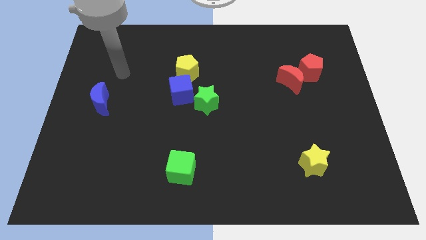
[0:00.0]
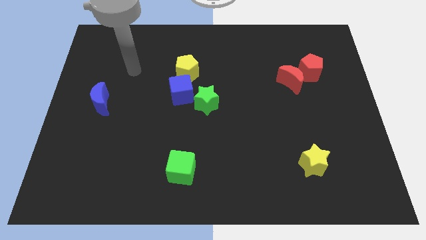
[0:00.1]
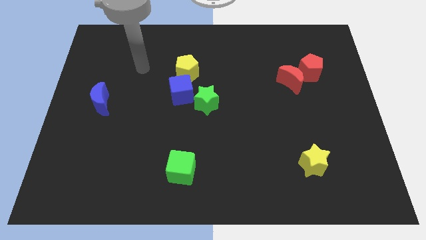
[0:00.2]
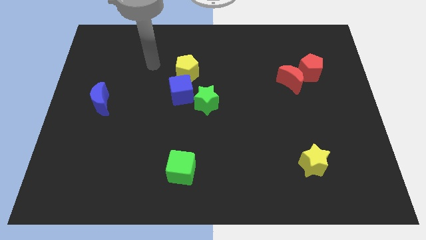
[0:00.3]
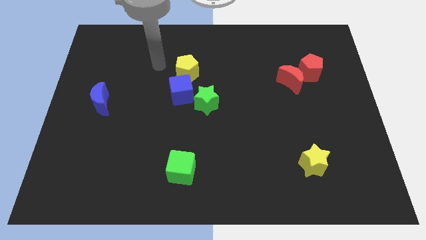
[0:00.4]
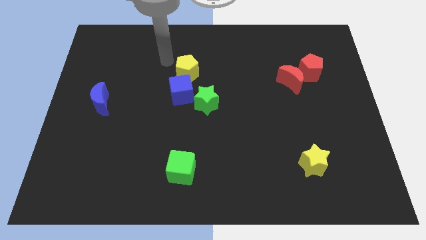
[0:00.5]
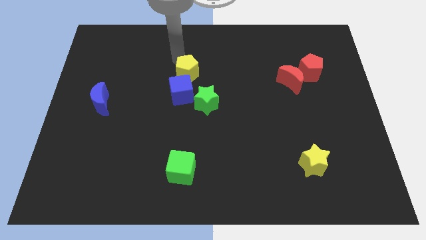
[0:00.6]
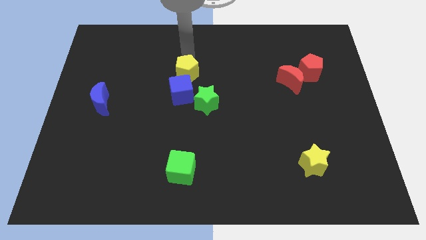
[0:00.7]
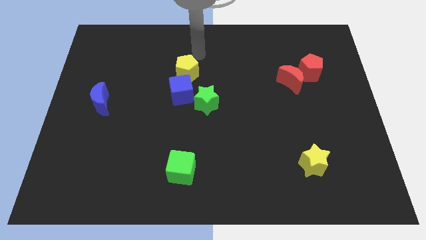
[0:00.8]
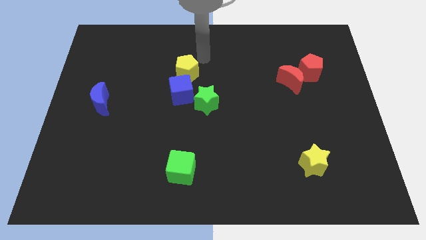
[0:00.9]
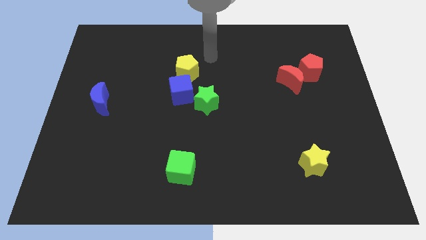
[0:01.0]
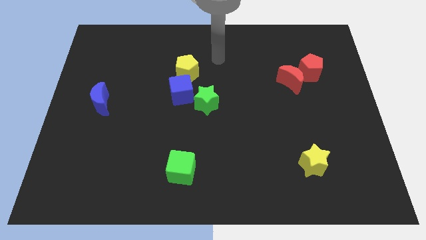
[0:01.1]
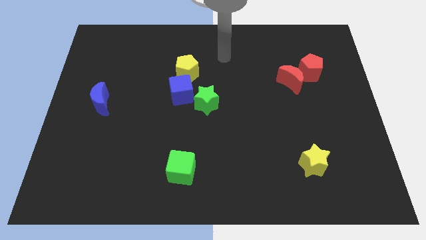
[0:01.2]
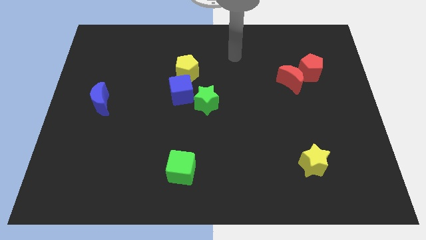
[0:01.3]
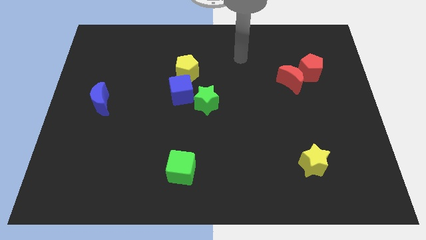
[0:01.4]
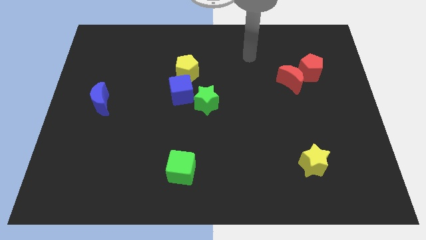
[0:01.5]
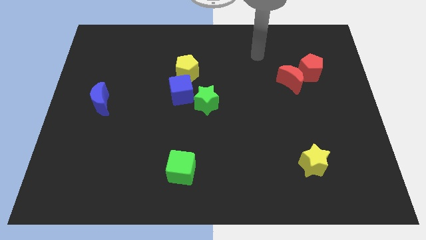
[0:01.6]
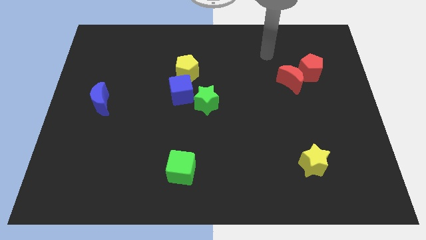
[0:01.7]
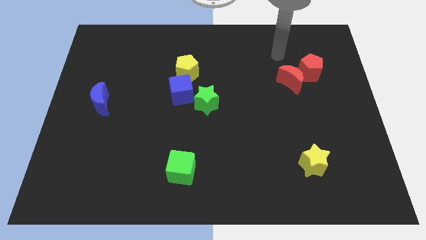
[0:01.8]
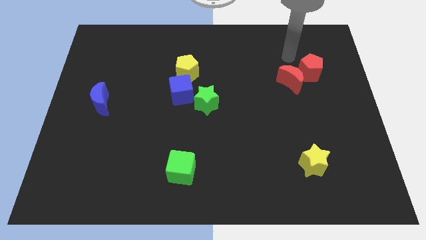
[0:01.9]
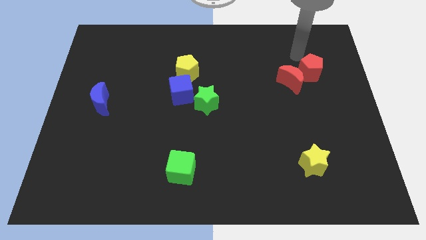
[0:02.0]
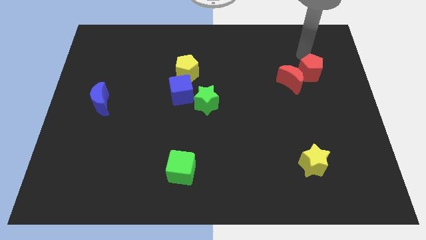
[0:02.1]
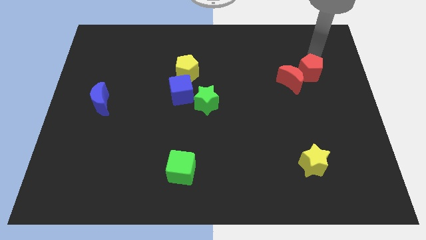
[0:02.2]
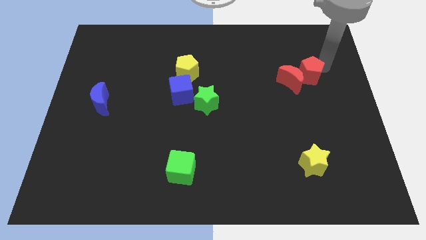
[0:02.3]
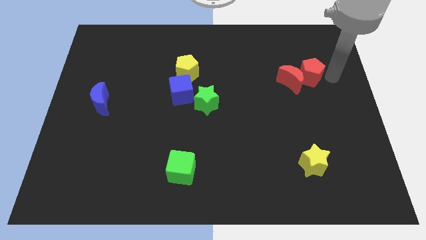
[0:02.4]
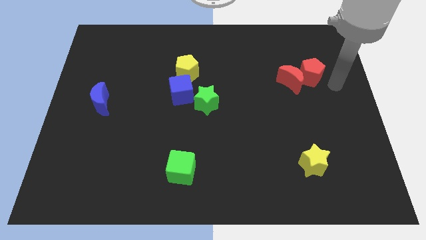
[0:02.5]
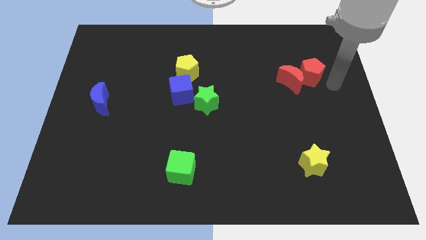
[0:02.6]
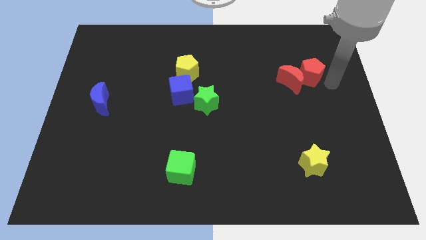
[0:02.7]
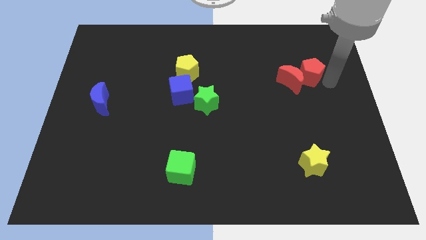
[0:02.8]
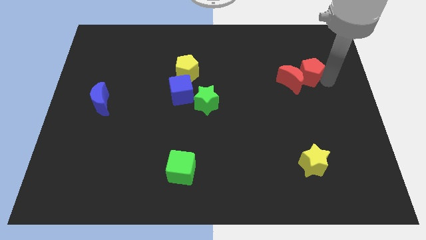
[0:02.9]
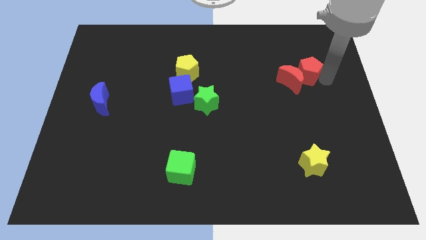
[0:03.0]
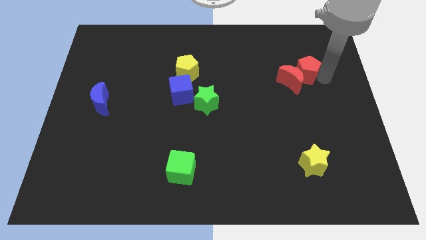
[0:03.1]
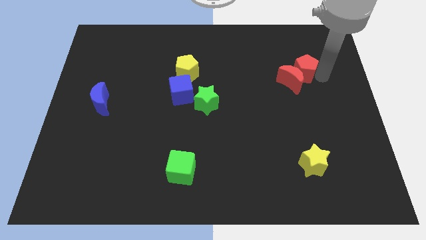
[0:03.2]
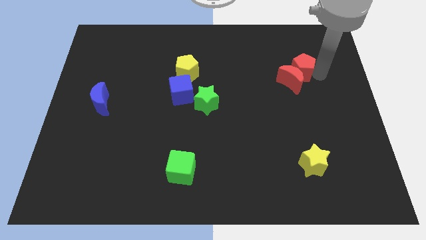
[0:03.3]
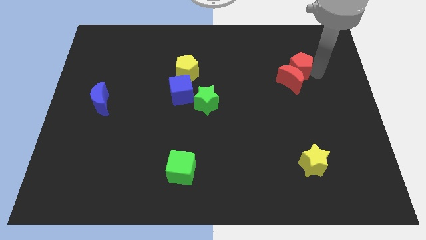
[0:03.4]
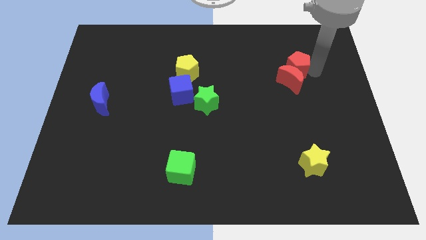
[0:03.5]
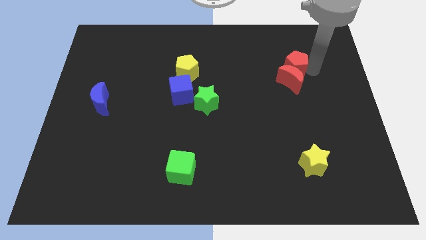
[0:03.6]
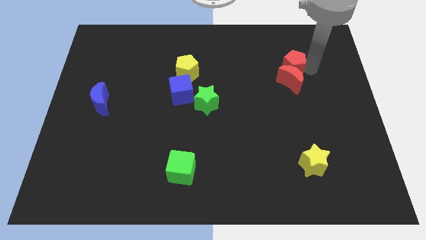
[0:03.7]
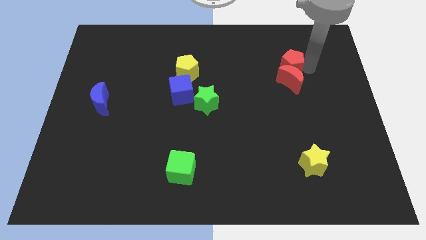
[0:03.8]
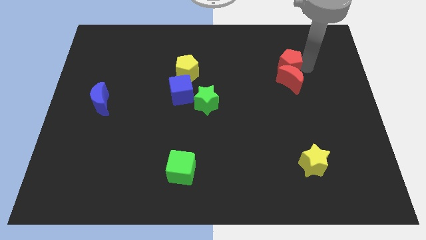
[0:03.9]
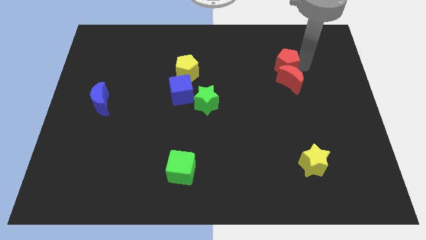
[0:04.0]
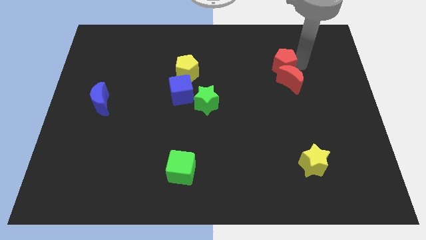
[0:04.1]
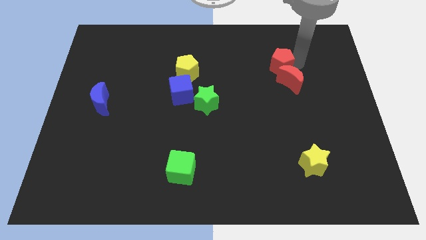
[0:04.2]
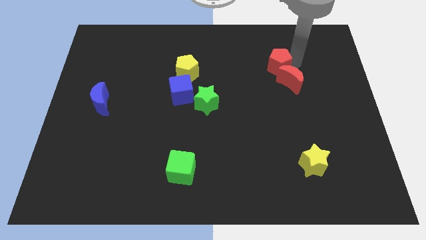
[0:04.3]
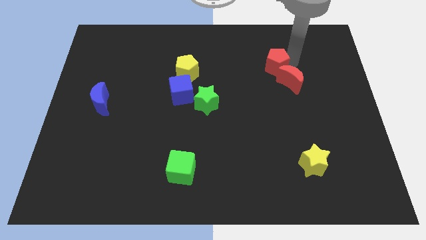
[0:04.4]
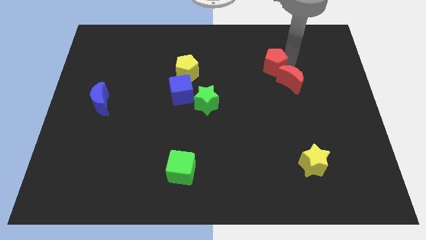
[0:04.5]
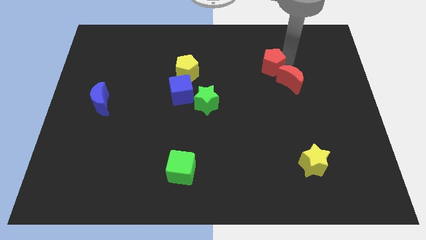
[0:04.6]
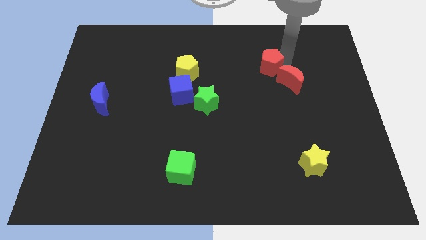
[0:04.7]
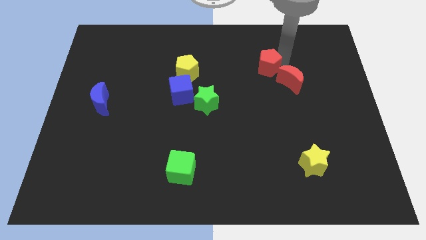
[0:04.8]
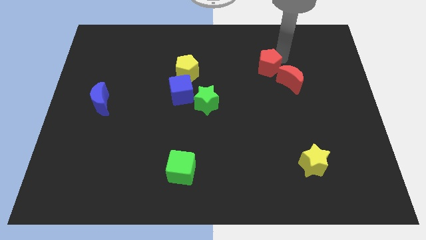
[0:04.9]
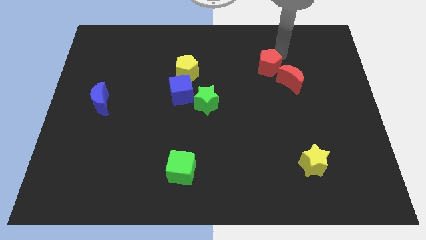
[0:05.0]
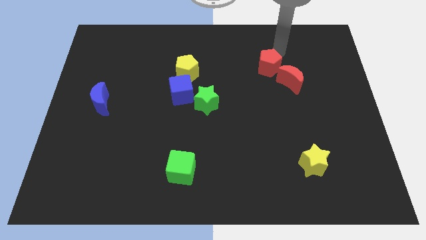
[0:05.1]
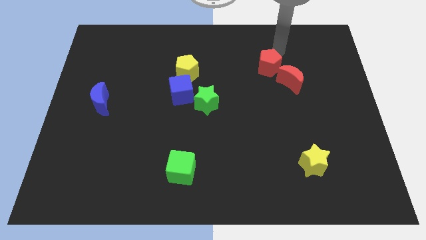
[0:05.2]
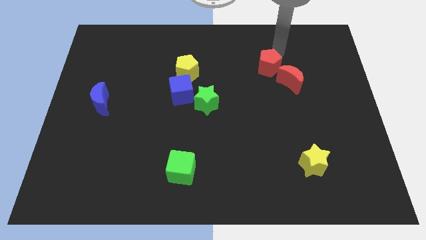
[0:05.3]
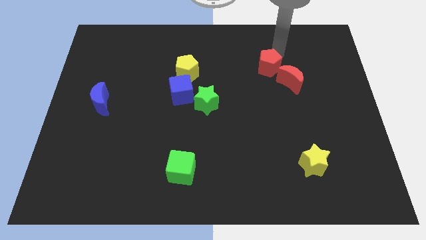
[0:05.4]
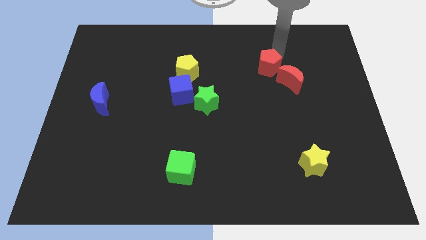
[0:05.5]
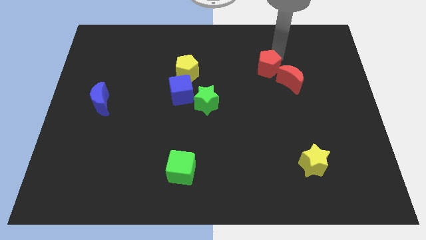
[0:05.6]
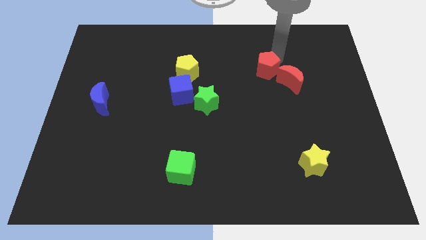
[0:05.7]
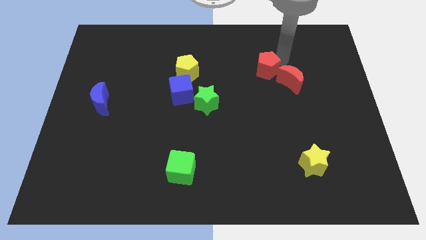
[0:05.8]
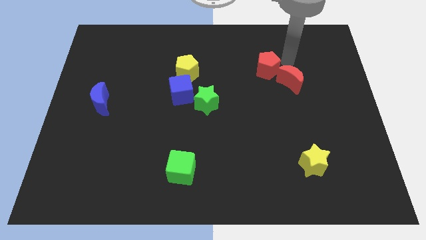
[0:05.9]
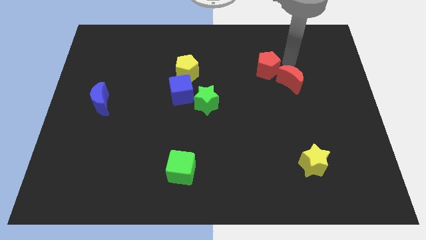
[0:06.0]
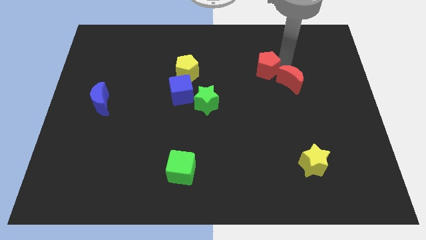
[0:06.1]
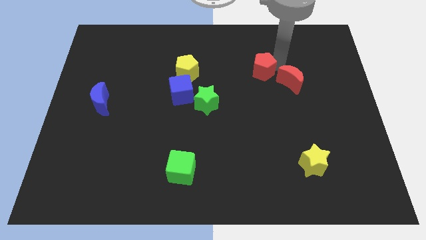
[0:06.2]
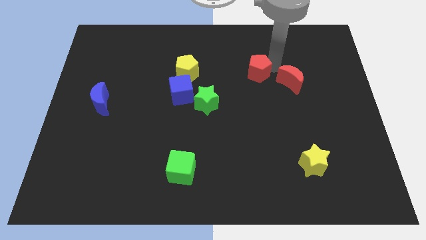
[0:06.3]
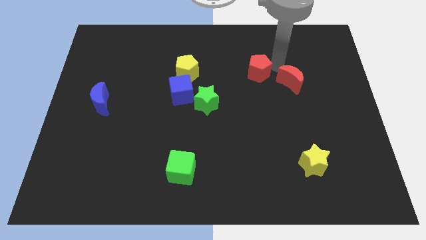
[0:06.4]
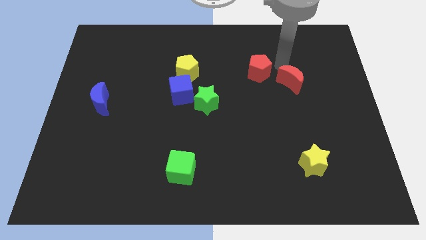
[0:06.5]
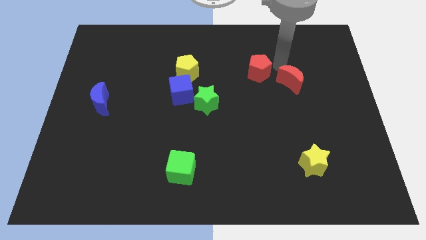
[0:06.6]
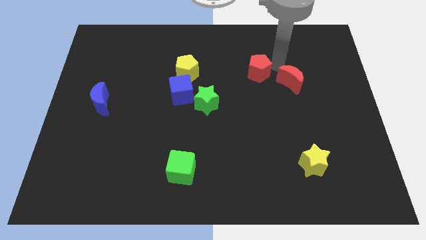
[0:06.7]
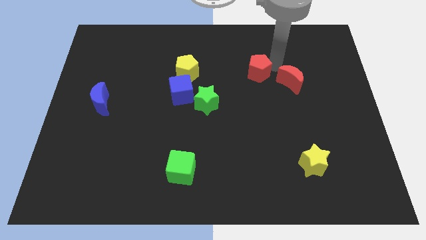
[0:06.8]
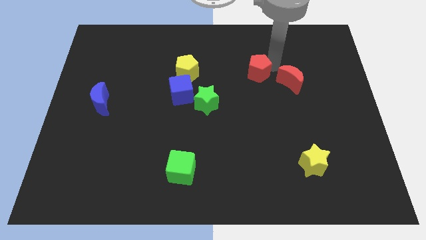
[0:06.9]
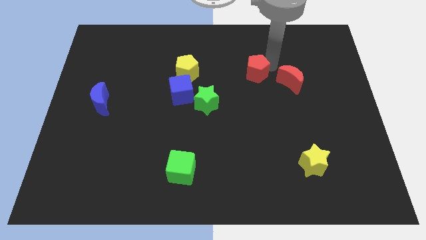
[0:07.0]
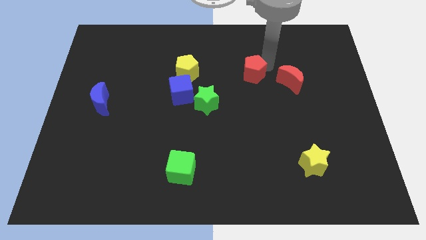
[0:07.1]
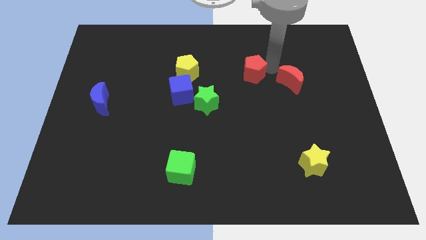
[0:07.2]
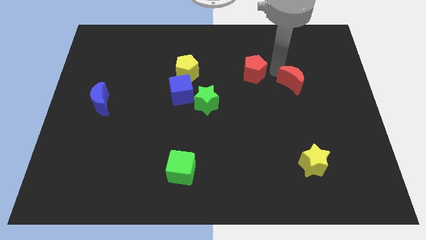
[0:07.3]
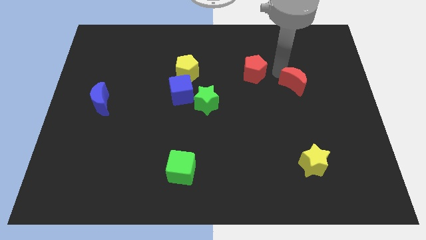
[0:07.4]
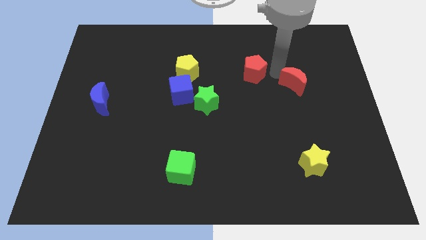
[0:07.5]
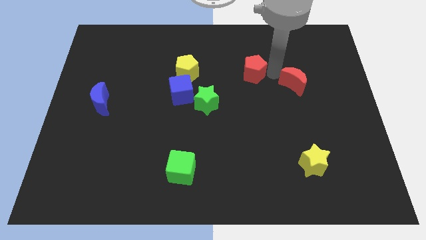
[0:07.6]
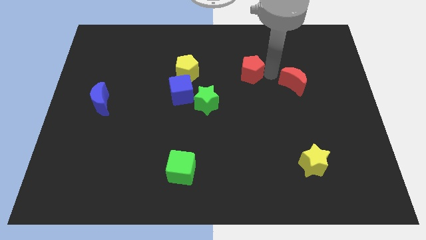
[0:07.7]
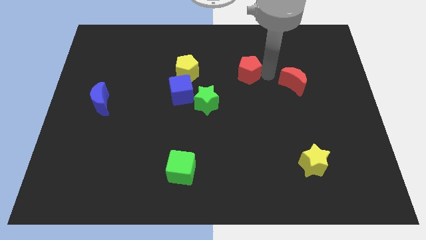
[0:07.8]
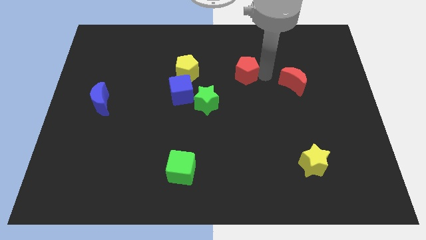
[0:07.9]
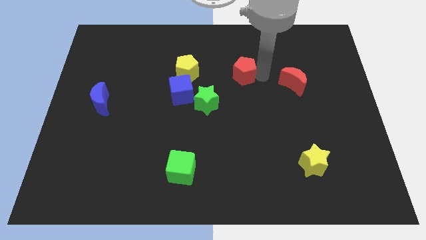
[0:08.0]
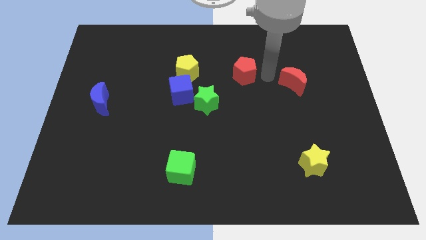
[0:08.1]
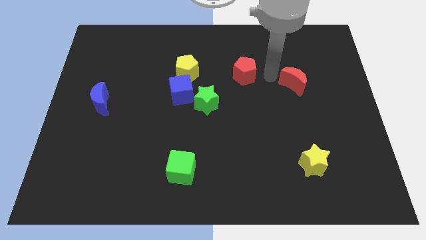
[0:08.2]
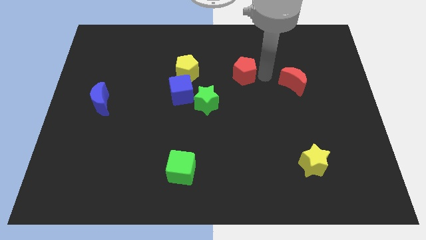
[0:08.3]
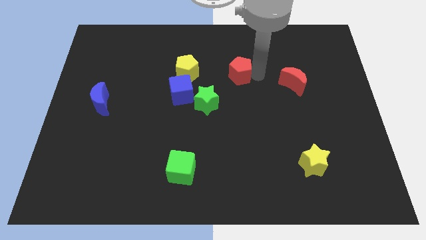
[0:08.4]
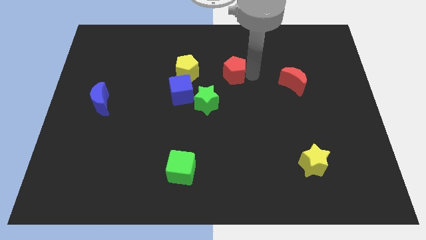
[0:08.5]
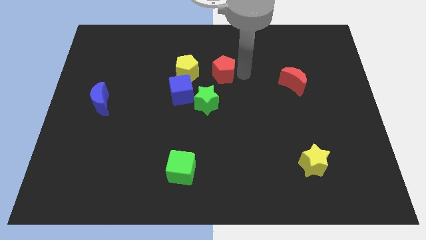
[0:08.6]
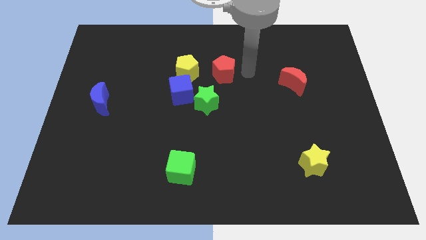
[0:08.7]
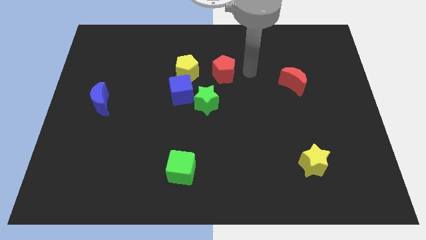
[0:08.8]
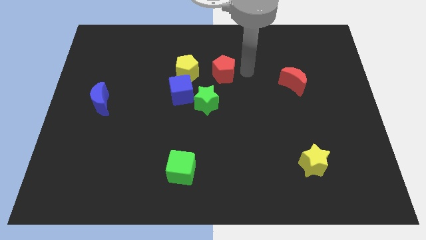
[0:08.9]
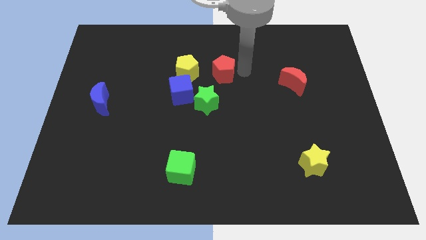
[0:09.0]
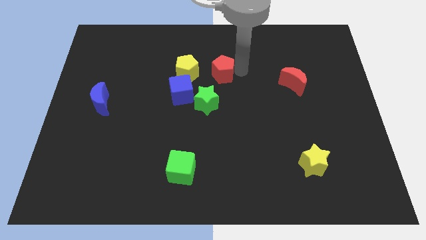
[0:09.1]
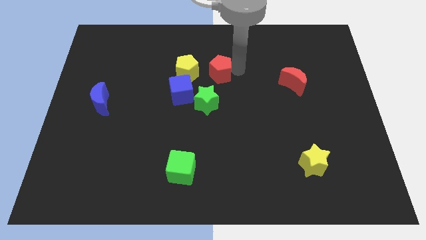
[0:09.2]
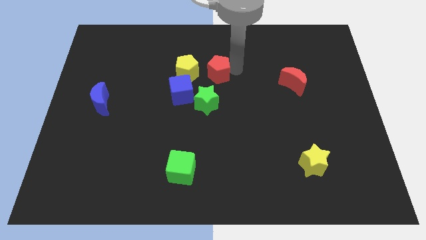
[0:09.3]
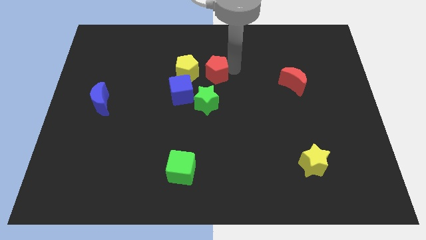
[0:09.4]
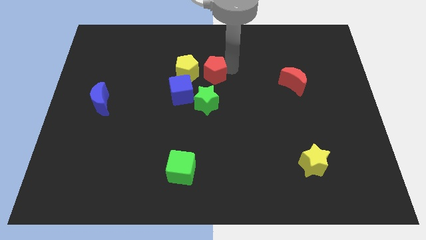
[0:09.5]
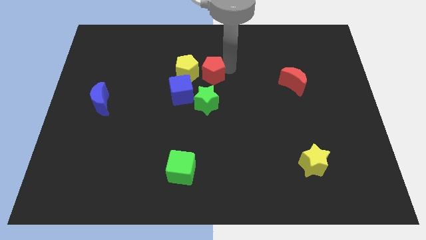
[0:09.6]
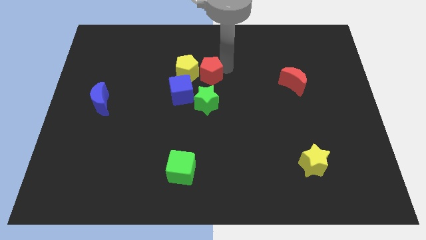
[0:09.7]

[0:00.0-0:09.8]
slide the red pentagon next to the yellow pentagon
